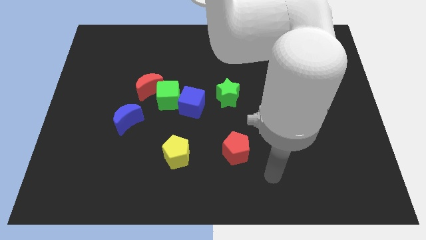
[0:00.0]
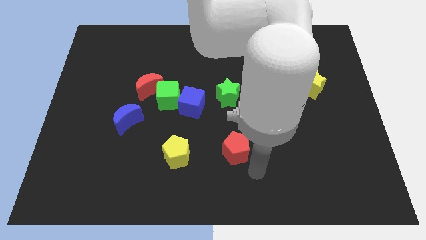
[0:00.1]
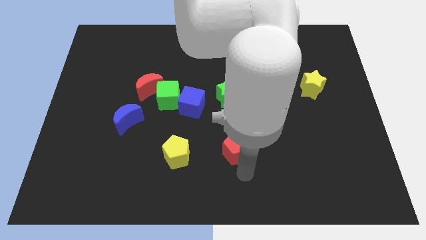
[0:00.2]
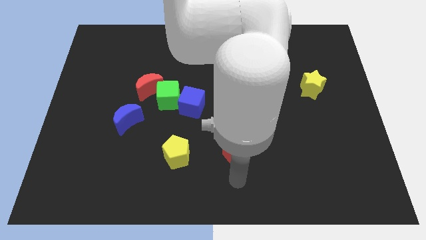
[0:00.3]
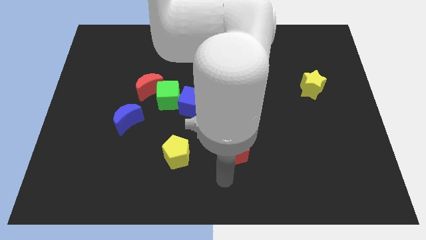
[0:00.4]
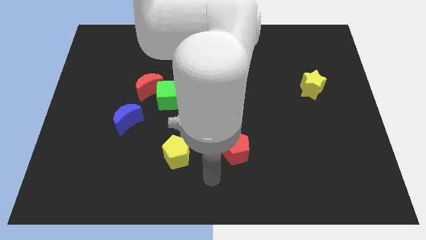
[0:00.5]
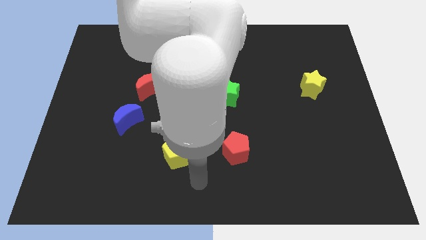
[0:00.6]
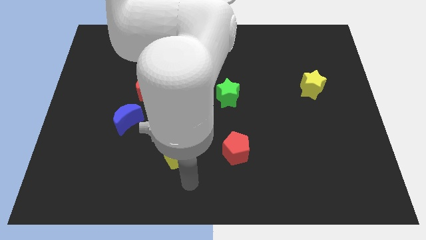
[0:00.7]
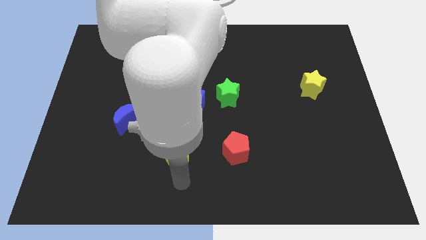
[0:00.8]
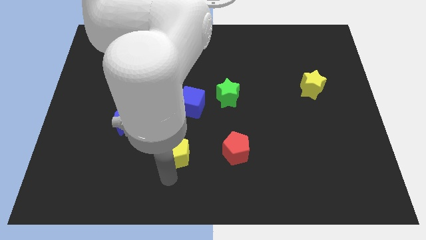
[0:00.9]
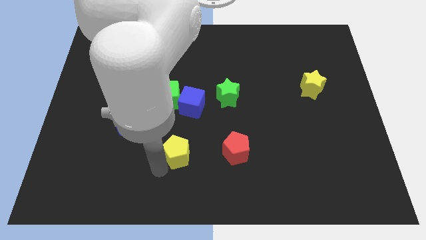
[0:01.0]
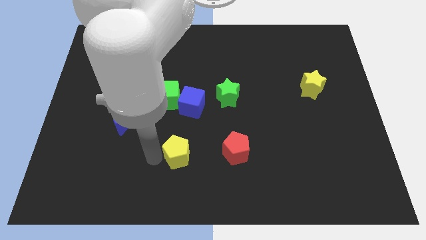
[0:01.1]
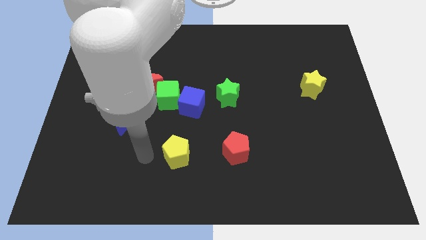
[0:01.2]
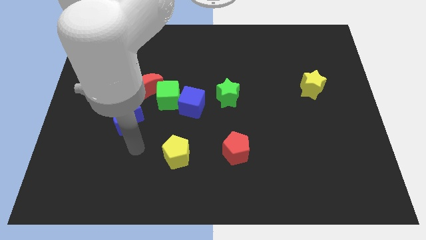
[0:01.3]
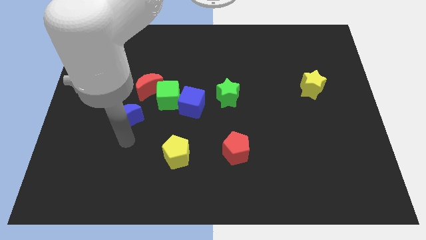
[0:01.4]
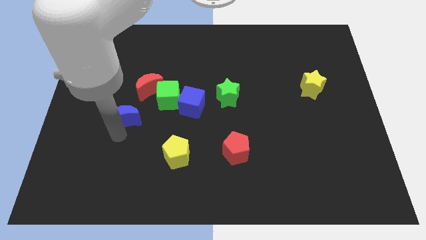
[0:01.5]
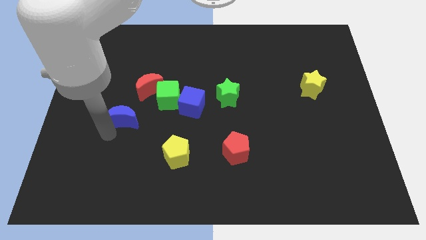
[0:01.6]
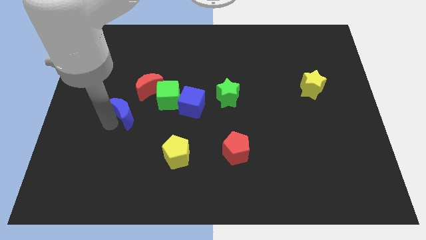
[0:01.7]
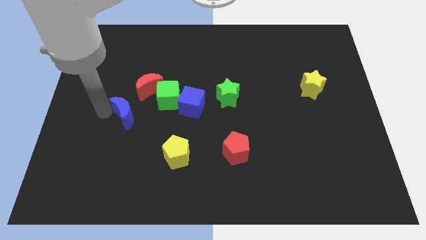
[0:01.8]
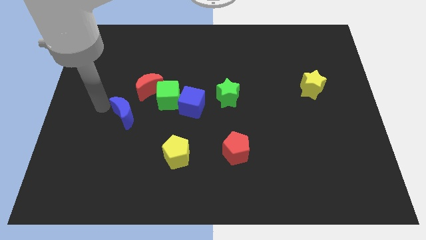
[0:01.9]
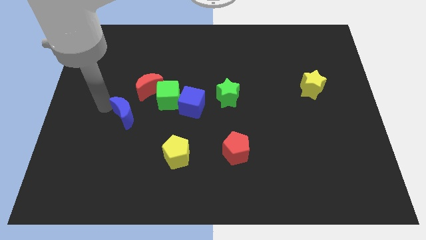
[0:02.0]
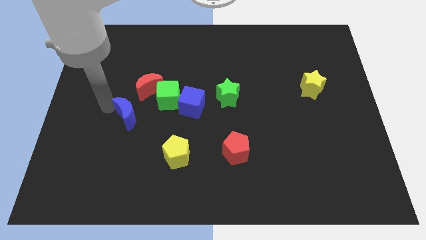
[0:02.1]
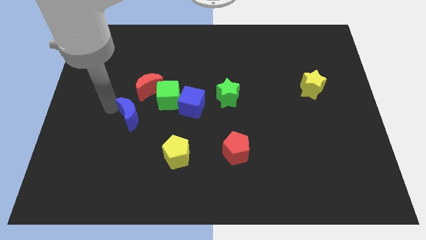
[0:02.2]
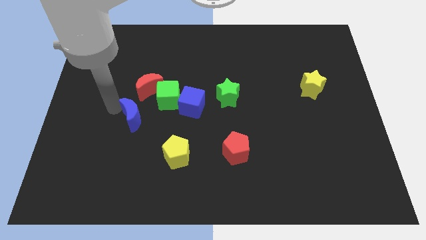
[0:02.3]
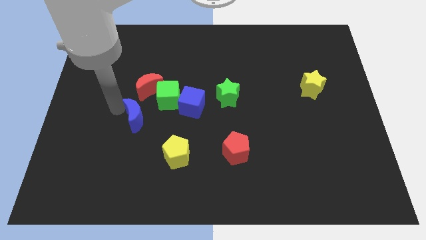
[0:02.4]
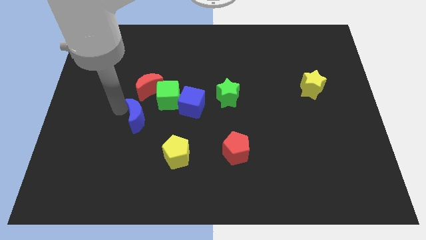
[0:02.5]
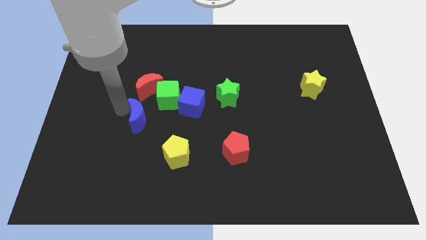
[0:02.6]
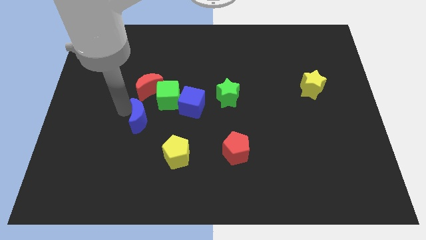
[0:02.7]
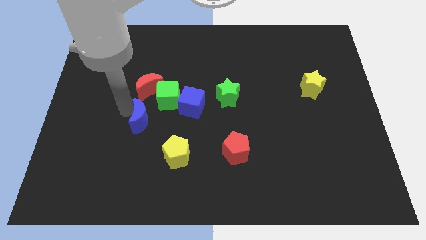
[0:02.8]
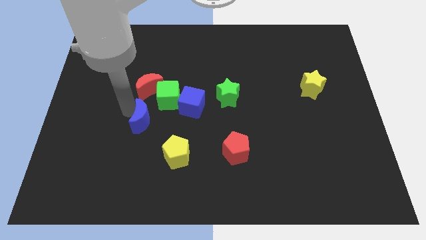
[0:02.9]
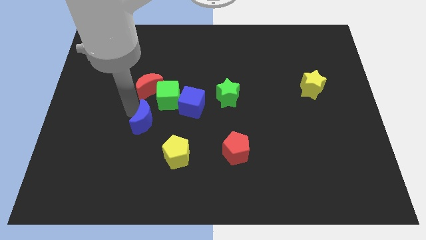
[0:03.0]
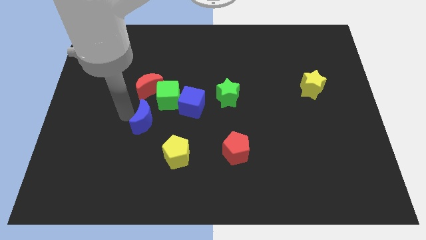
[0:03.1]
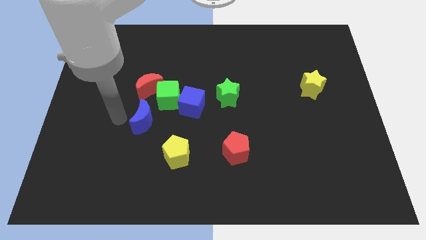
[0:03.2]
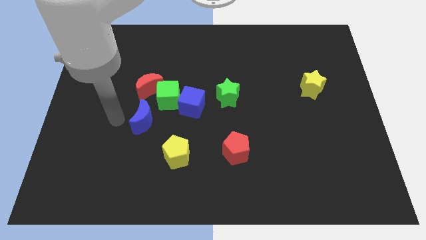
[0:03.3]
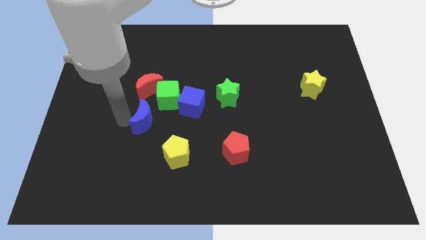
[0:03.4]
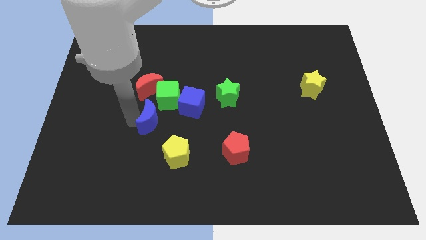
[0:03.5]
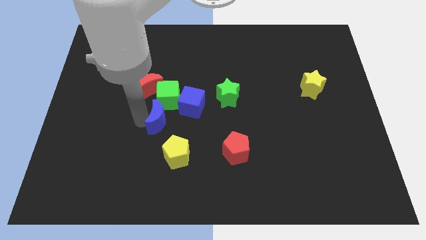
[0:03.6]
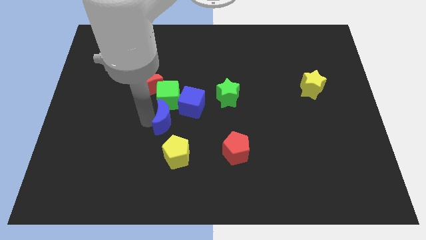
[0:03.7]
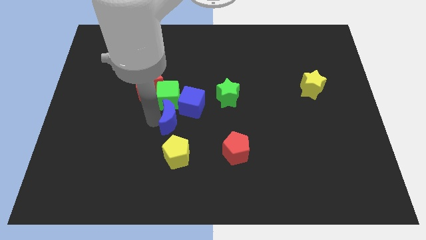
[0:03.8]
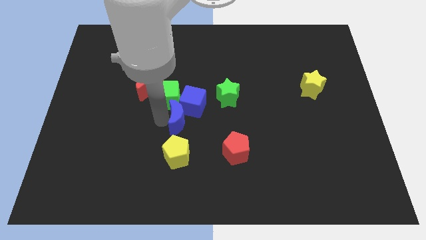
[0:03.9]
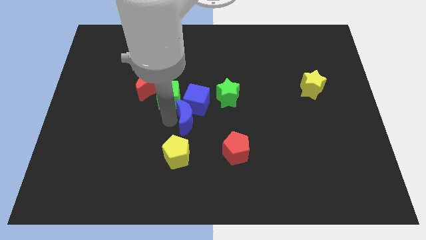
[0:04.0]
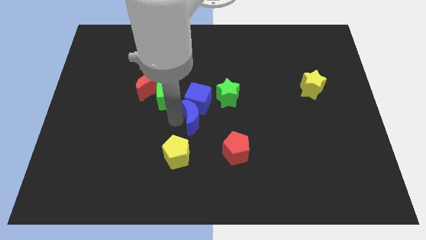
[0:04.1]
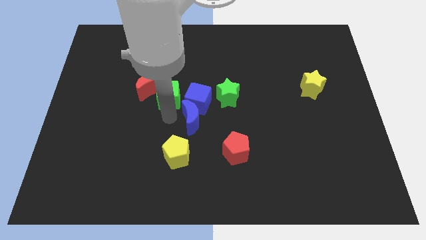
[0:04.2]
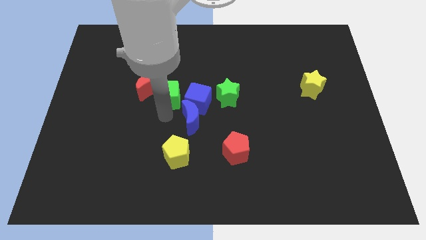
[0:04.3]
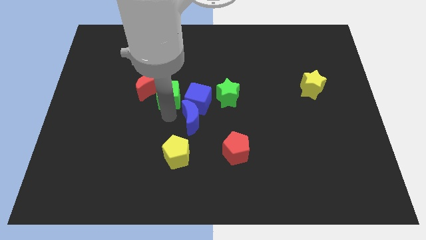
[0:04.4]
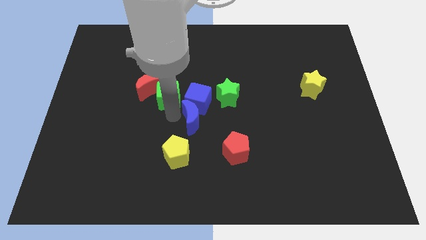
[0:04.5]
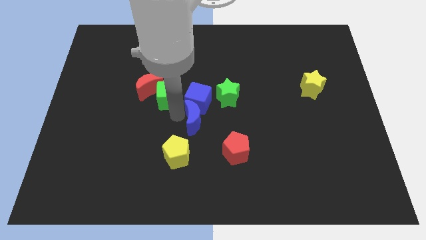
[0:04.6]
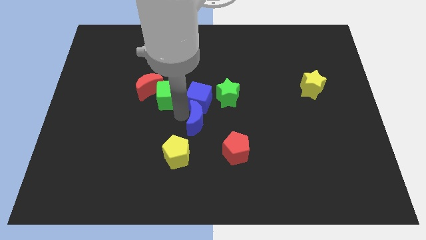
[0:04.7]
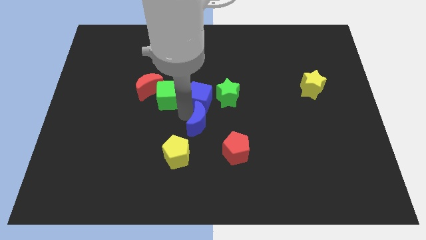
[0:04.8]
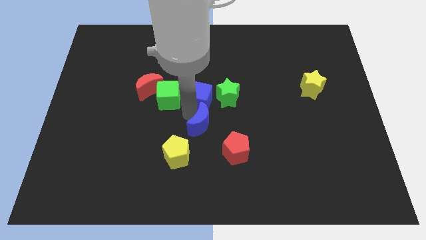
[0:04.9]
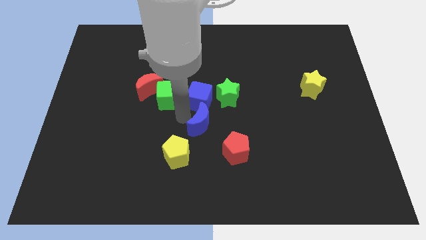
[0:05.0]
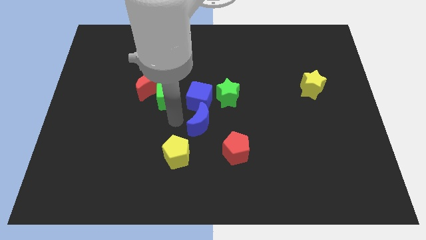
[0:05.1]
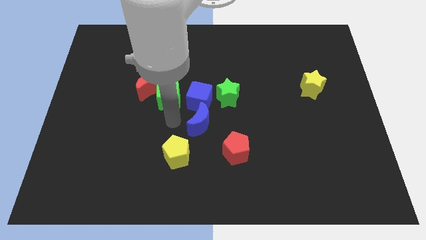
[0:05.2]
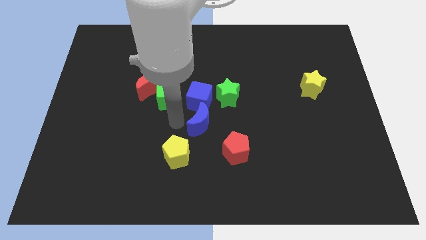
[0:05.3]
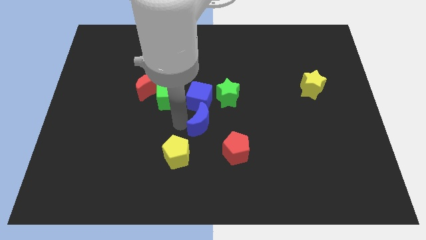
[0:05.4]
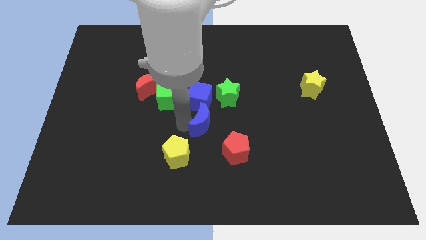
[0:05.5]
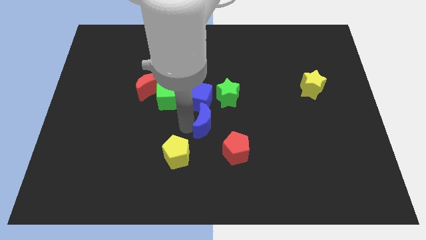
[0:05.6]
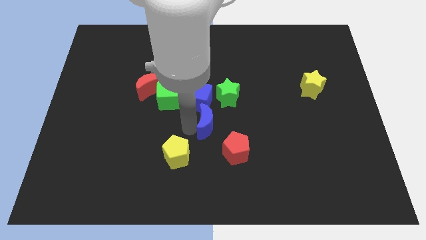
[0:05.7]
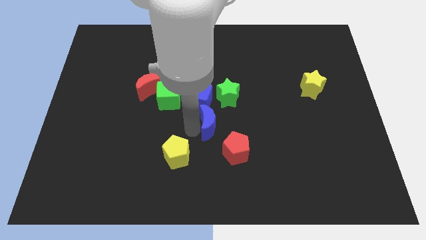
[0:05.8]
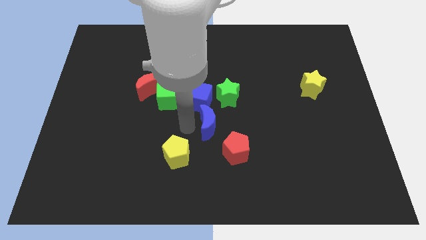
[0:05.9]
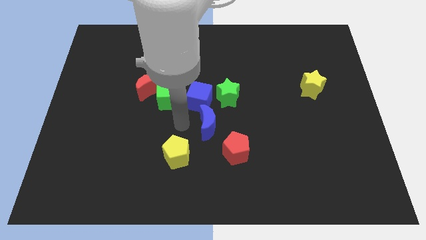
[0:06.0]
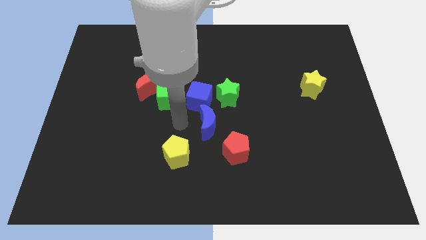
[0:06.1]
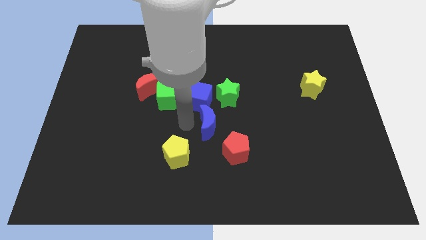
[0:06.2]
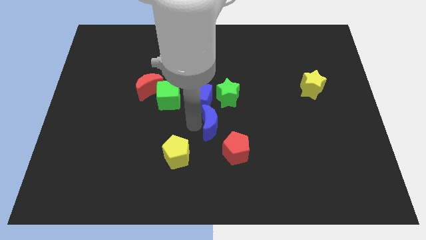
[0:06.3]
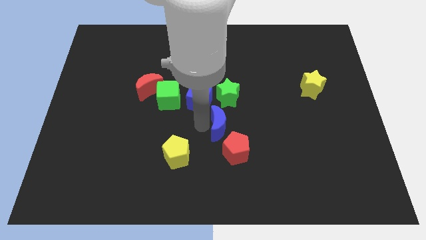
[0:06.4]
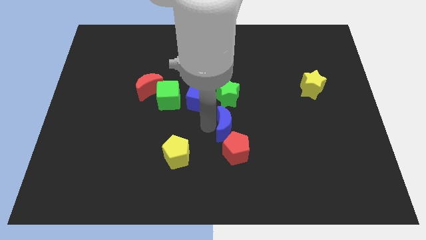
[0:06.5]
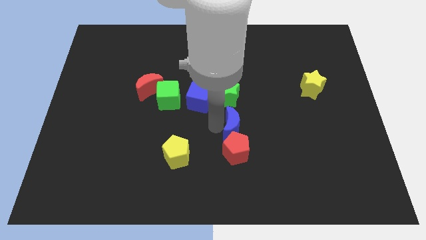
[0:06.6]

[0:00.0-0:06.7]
push the blue moon to the top right of the red pentagon

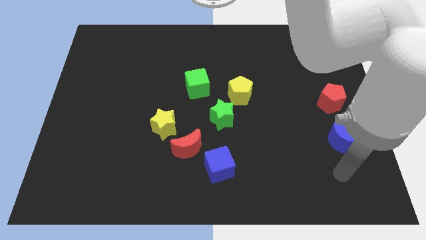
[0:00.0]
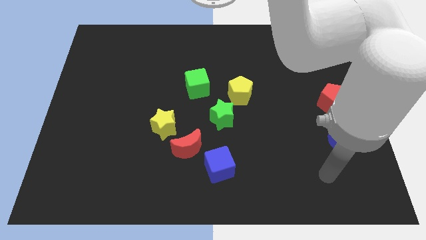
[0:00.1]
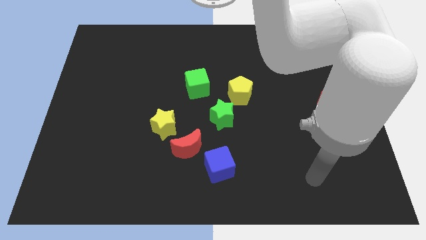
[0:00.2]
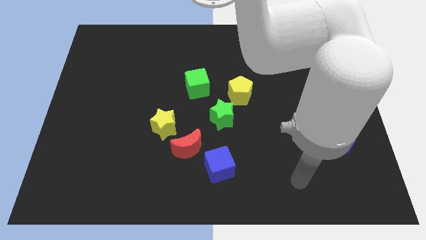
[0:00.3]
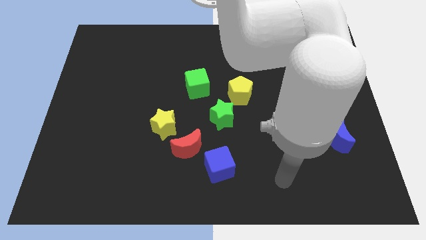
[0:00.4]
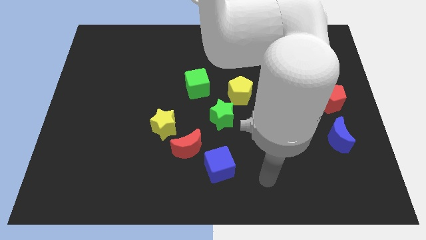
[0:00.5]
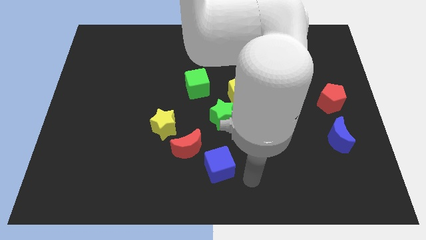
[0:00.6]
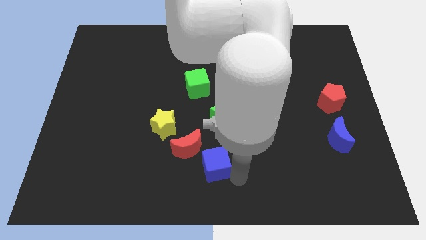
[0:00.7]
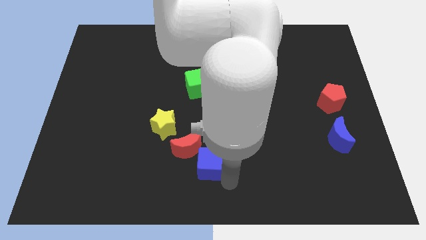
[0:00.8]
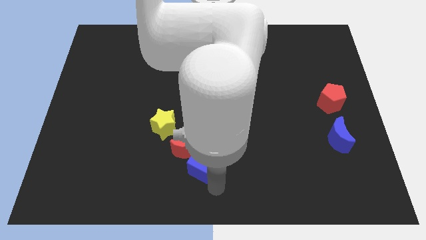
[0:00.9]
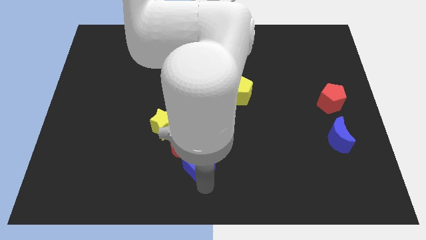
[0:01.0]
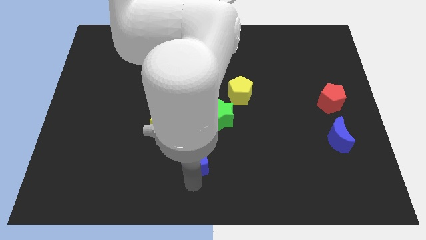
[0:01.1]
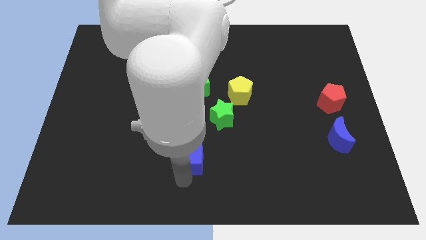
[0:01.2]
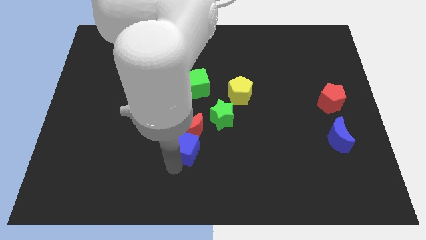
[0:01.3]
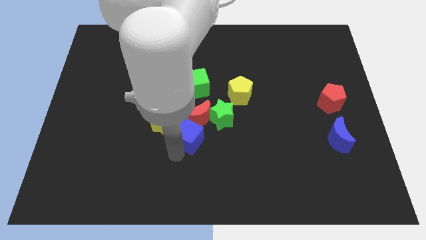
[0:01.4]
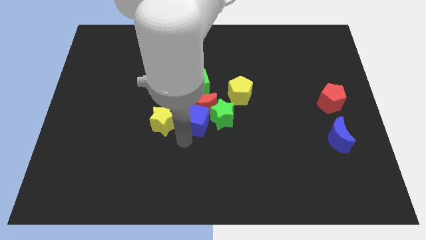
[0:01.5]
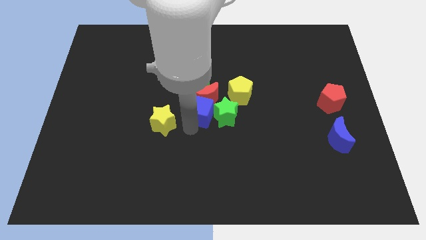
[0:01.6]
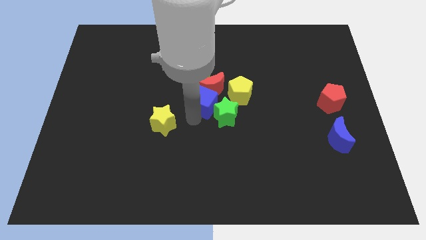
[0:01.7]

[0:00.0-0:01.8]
put the red moon to the top left side of the yellow pentagon
